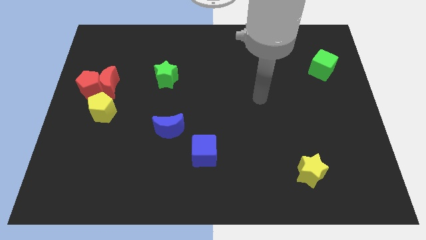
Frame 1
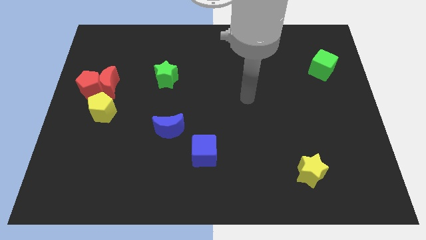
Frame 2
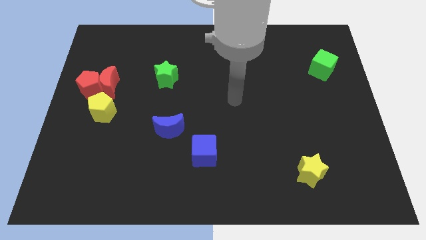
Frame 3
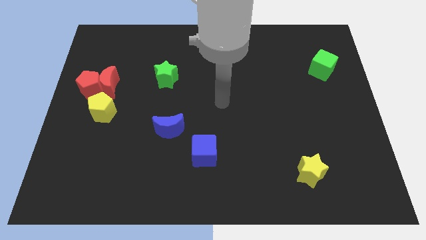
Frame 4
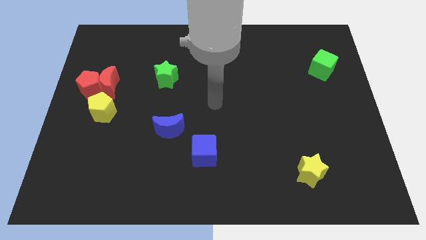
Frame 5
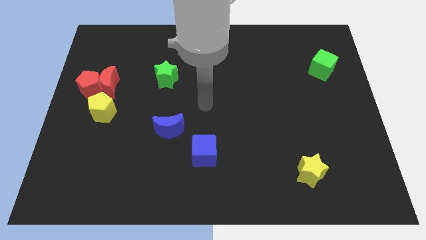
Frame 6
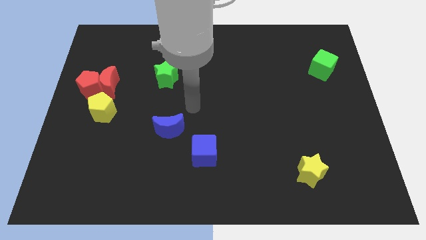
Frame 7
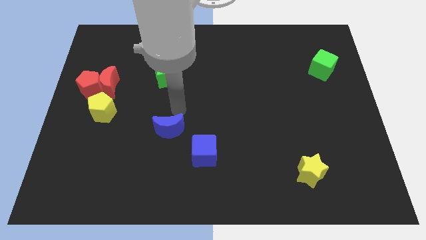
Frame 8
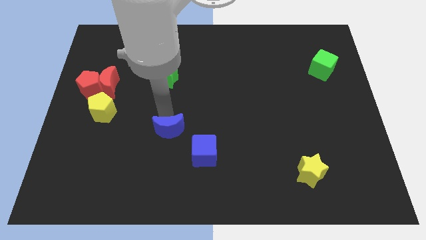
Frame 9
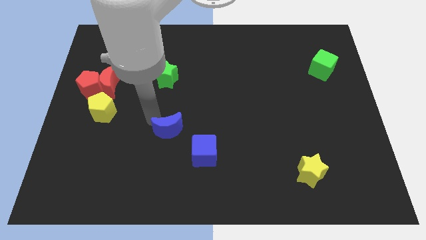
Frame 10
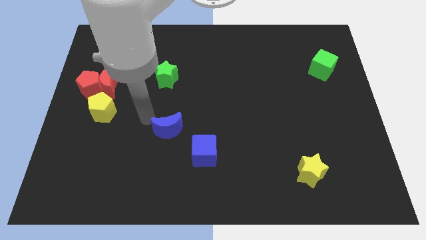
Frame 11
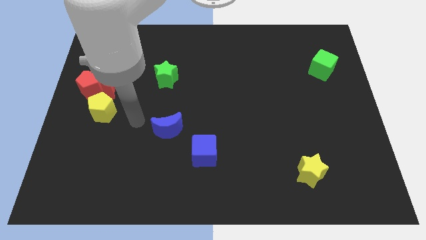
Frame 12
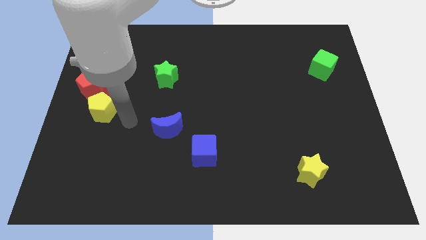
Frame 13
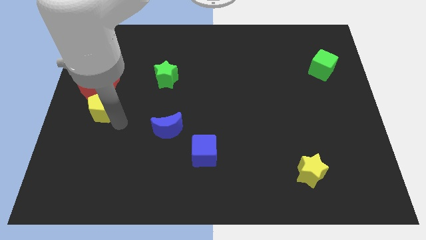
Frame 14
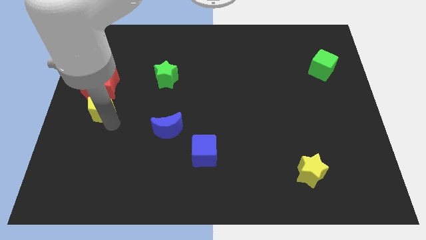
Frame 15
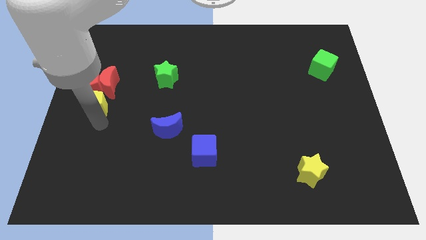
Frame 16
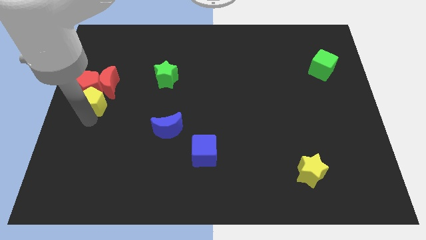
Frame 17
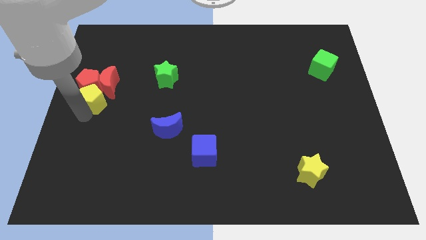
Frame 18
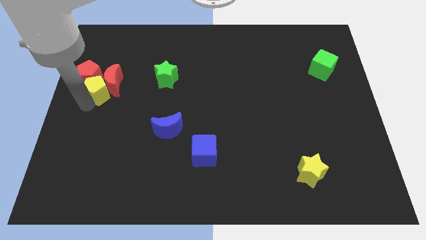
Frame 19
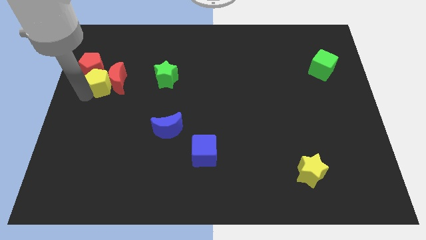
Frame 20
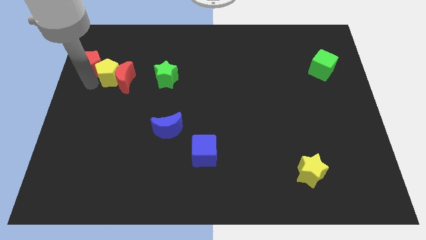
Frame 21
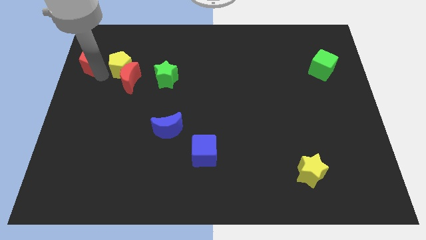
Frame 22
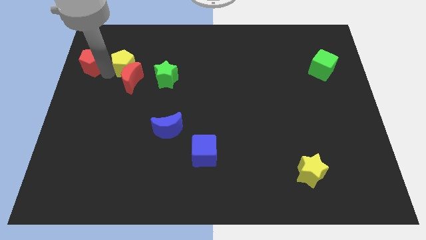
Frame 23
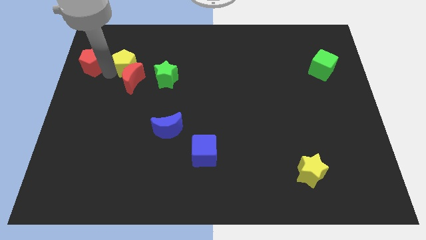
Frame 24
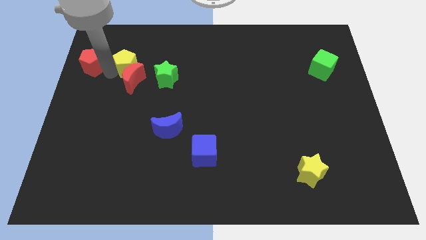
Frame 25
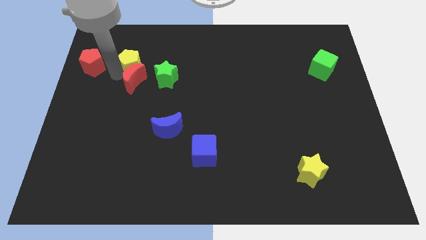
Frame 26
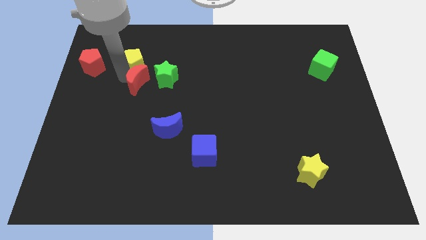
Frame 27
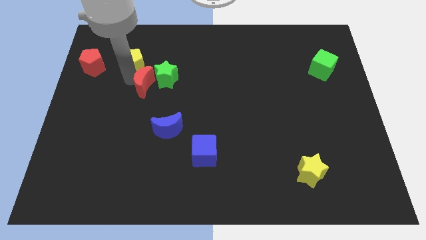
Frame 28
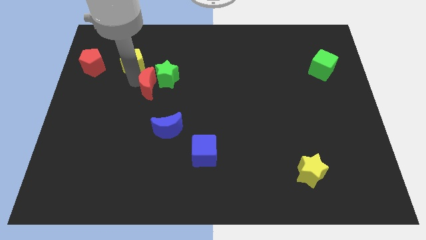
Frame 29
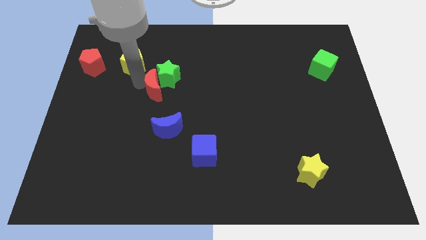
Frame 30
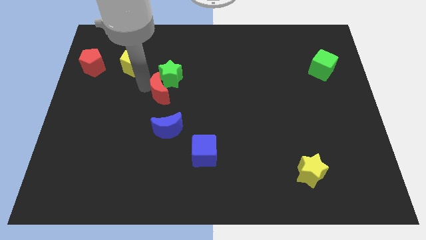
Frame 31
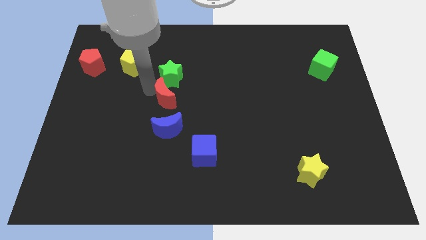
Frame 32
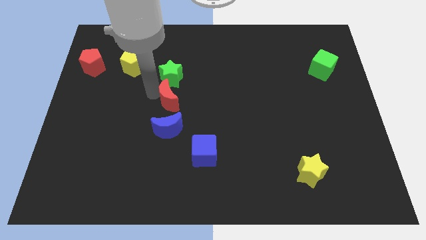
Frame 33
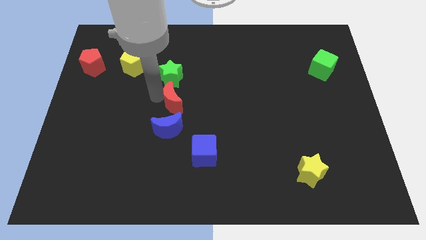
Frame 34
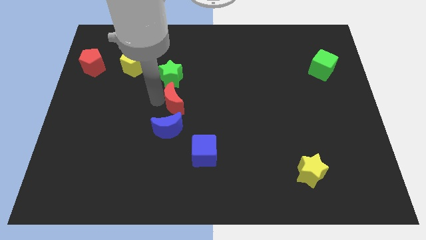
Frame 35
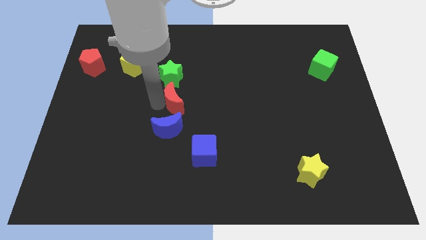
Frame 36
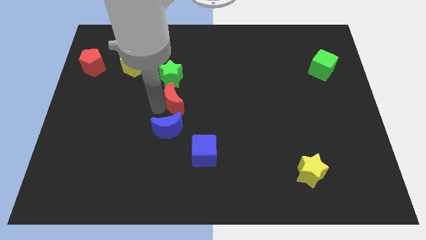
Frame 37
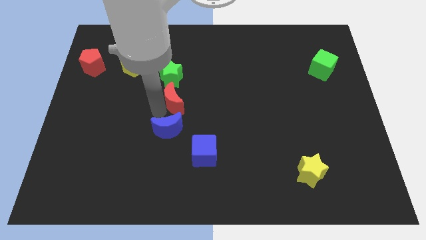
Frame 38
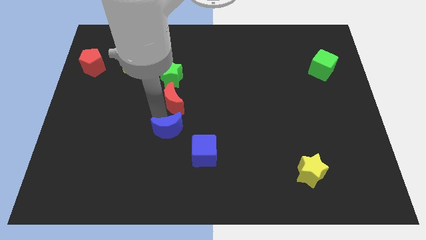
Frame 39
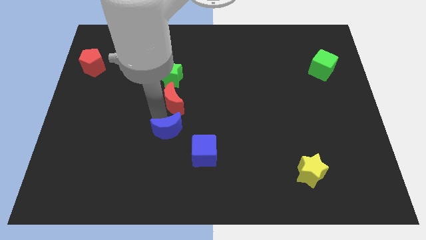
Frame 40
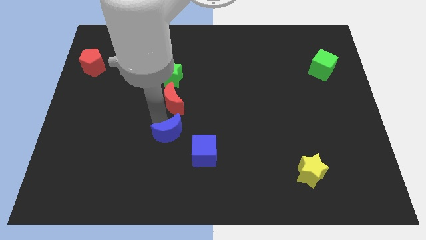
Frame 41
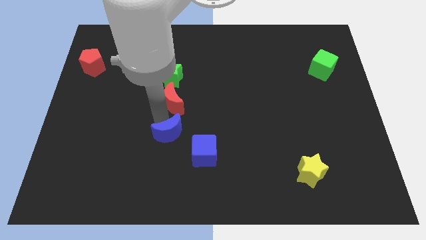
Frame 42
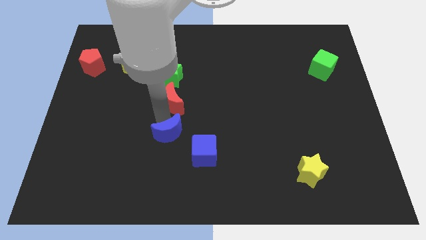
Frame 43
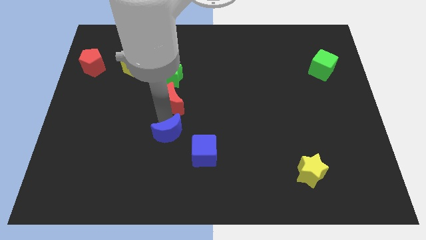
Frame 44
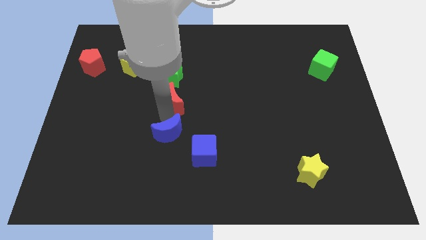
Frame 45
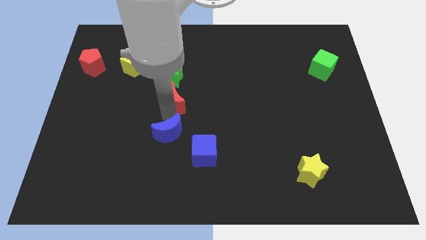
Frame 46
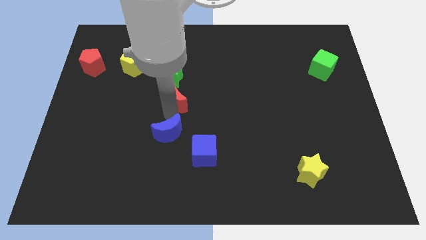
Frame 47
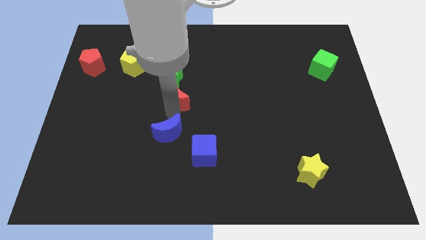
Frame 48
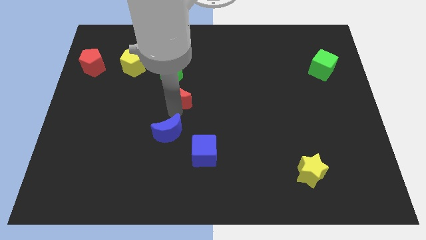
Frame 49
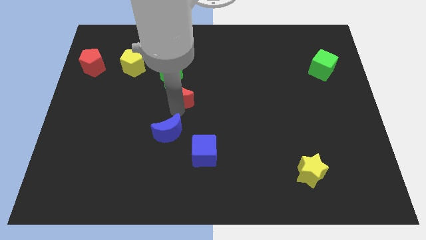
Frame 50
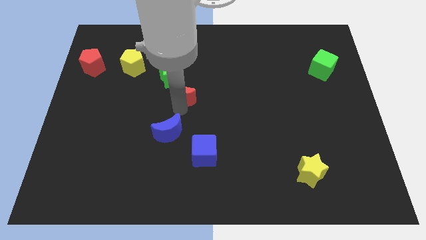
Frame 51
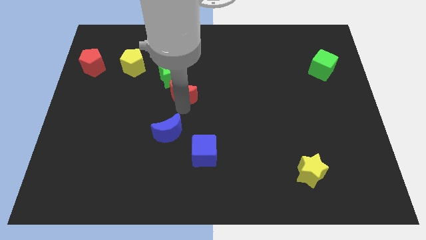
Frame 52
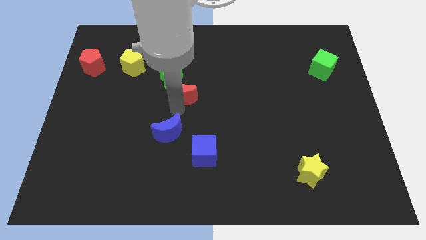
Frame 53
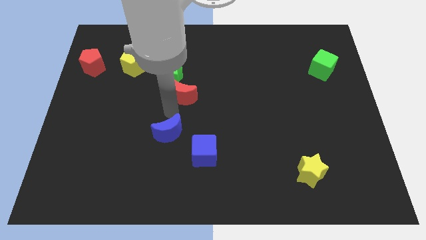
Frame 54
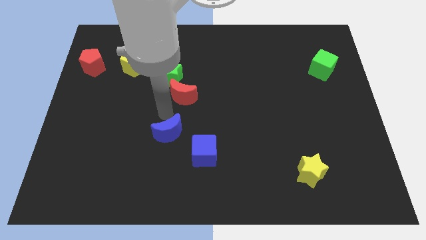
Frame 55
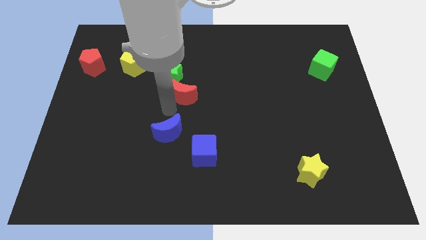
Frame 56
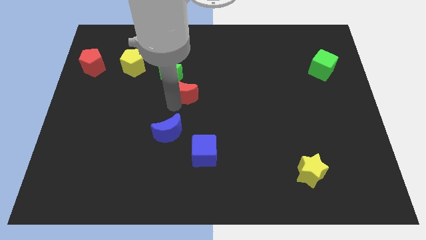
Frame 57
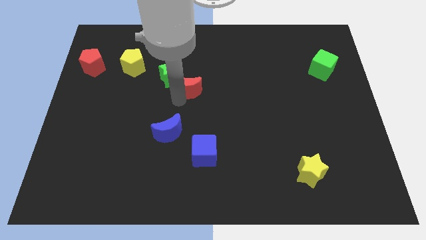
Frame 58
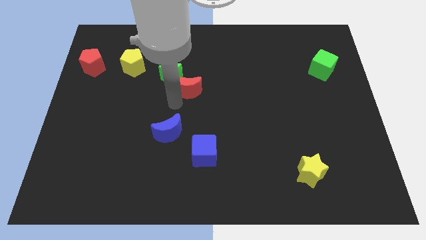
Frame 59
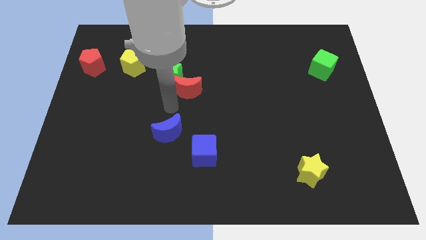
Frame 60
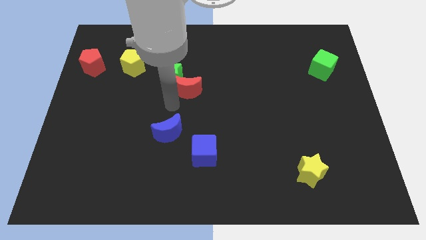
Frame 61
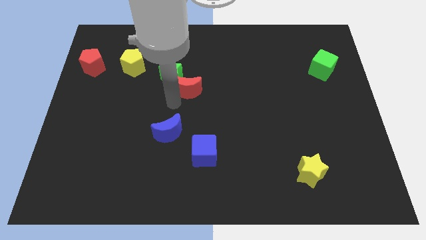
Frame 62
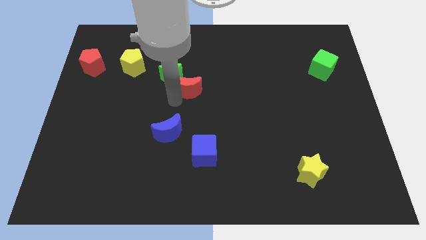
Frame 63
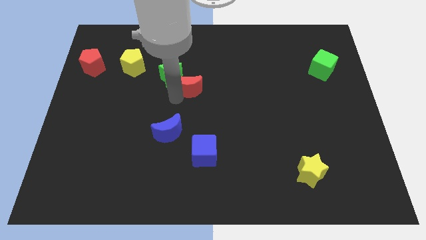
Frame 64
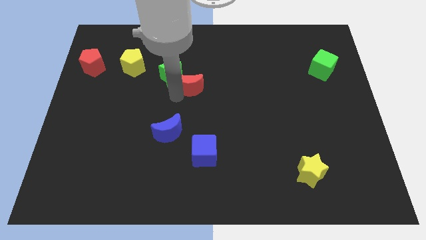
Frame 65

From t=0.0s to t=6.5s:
move the red moon to the right

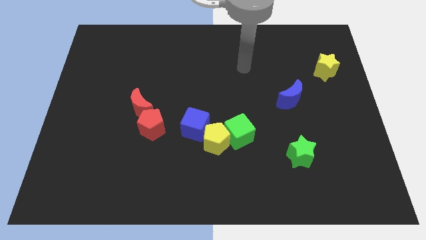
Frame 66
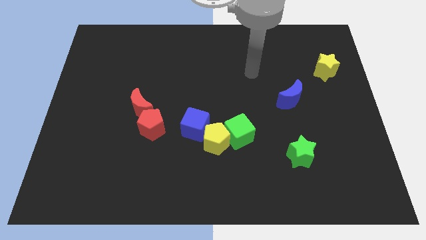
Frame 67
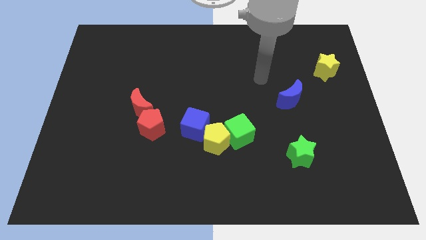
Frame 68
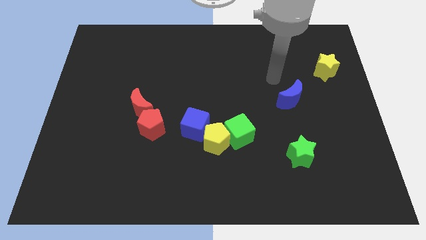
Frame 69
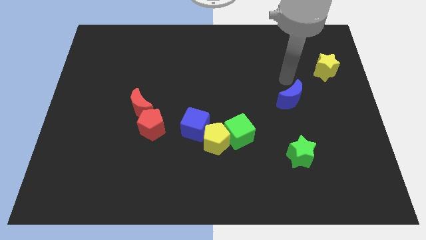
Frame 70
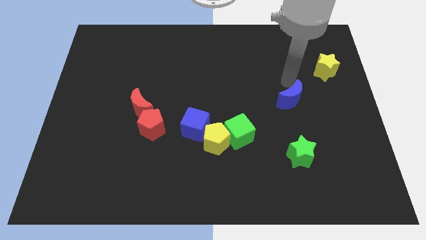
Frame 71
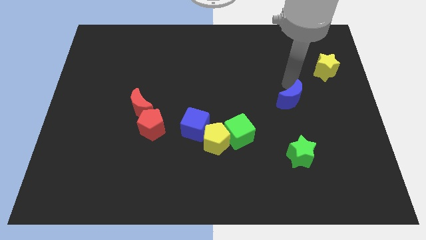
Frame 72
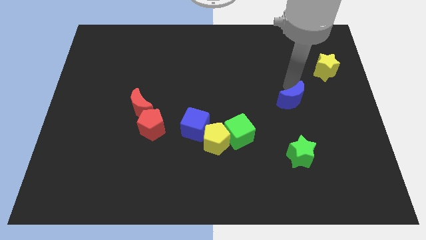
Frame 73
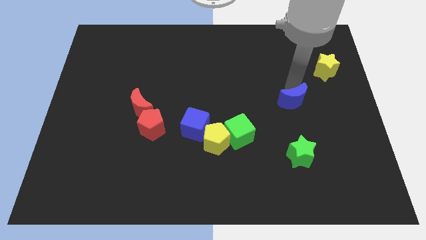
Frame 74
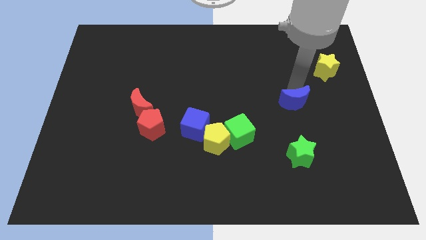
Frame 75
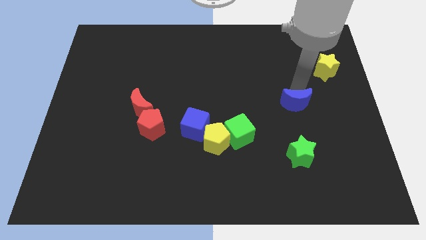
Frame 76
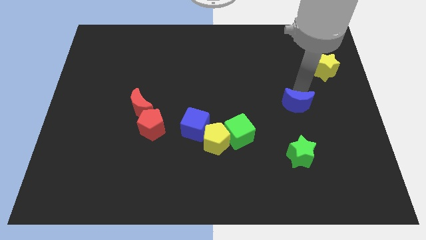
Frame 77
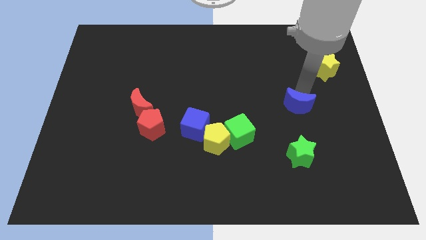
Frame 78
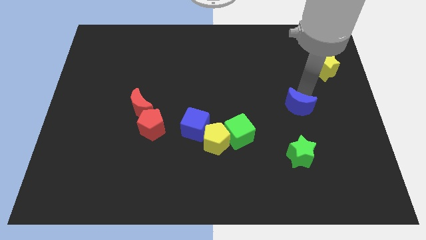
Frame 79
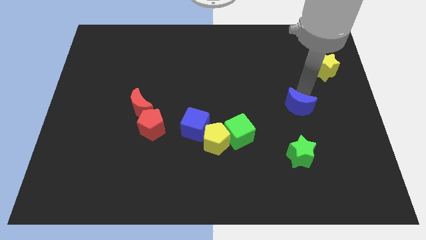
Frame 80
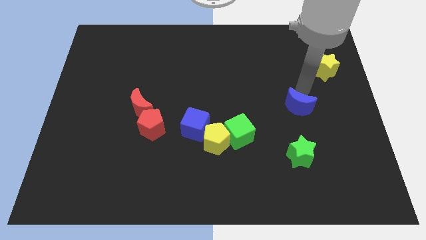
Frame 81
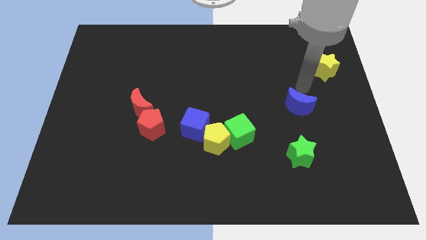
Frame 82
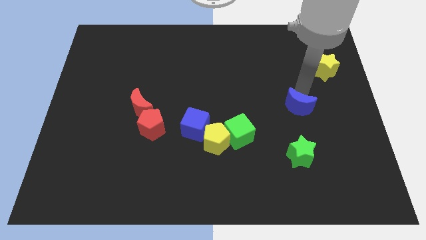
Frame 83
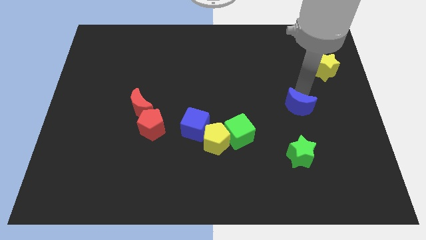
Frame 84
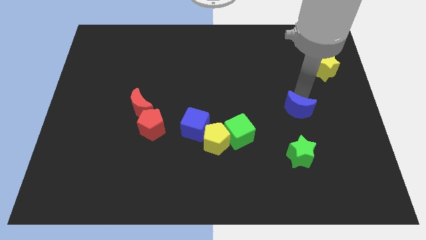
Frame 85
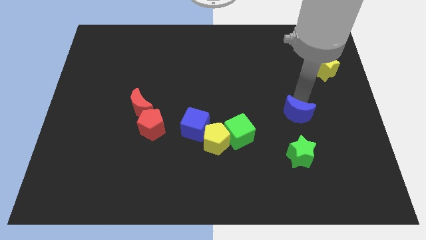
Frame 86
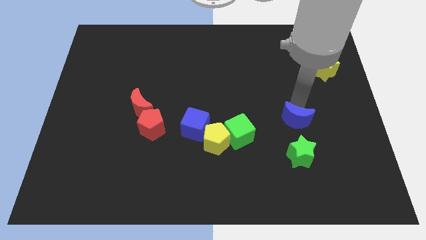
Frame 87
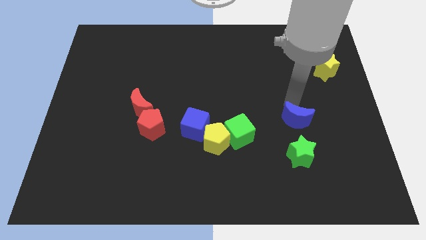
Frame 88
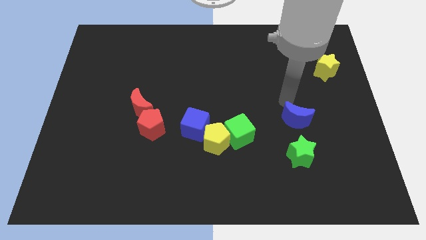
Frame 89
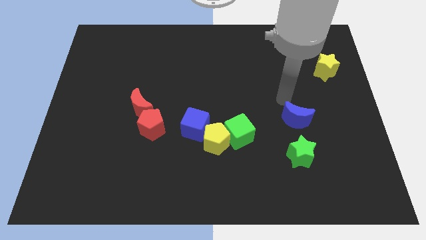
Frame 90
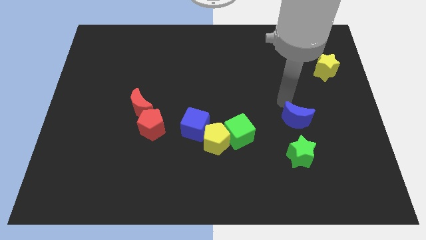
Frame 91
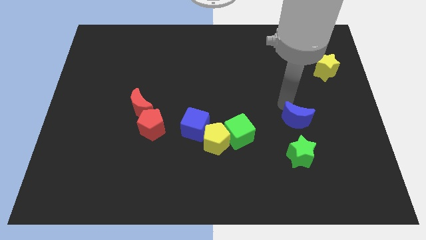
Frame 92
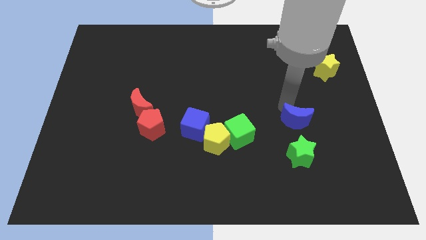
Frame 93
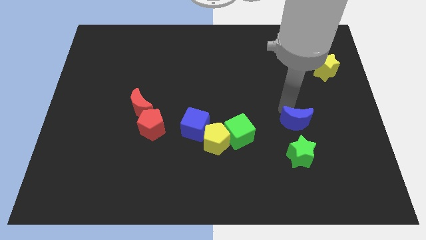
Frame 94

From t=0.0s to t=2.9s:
slightly slide the blue moon down
